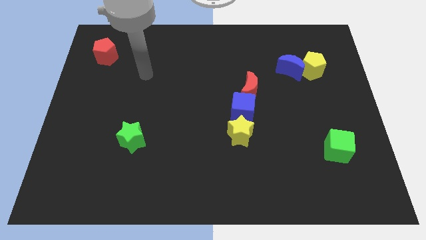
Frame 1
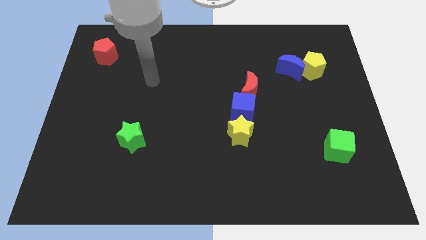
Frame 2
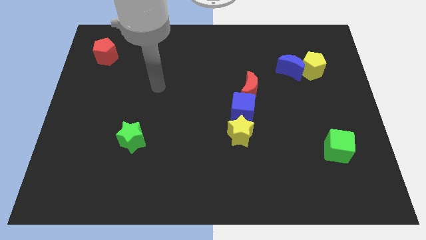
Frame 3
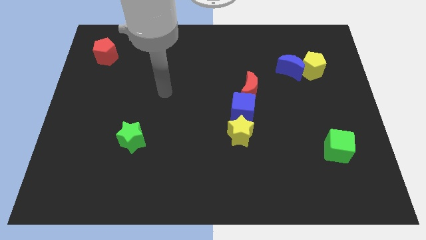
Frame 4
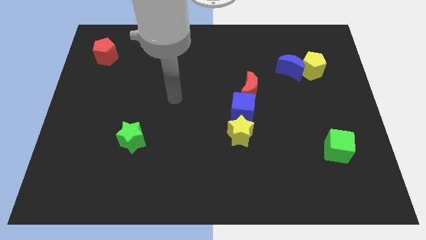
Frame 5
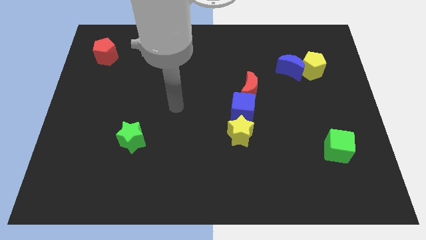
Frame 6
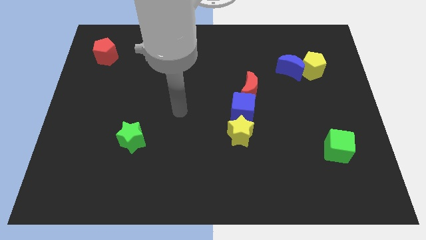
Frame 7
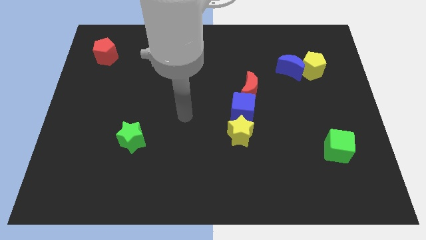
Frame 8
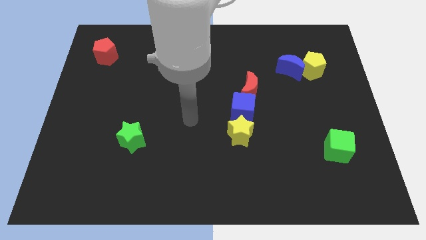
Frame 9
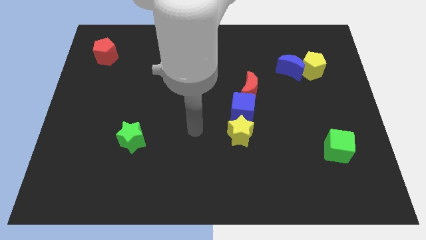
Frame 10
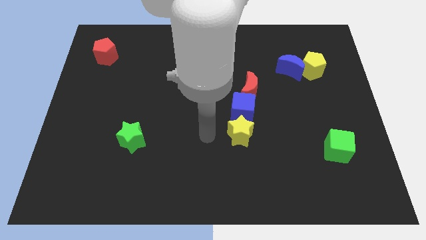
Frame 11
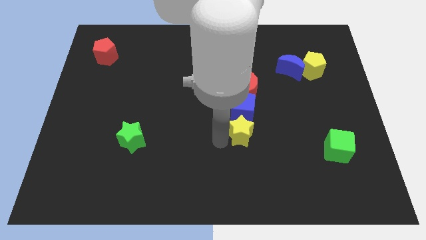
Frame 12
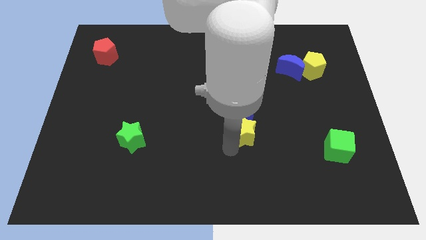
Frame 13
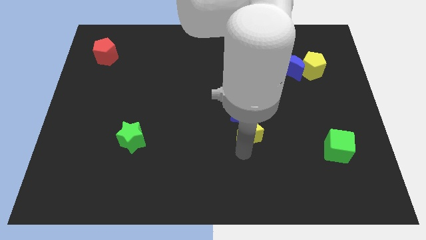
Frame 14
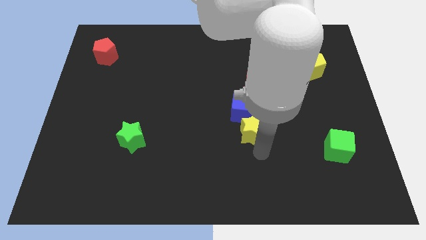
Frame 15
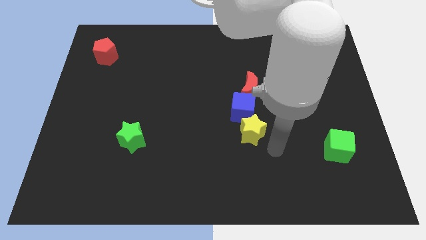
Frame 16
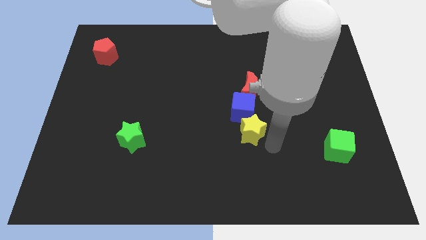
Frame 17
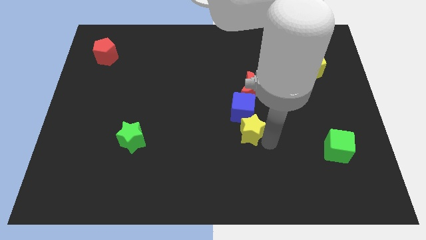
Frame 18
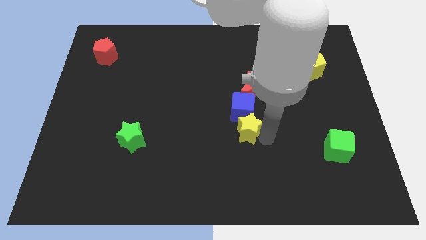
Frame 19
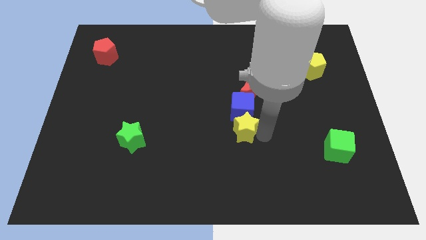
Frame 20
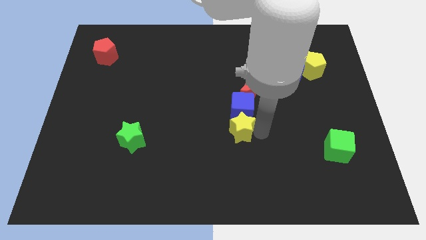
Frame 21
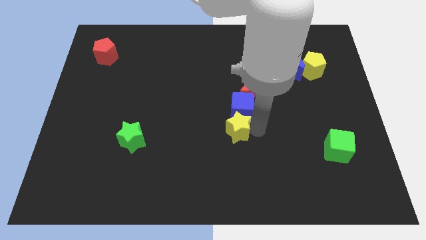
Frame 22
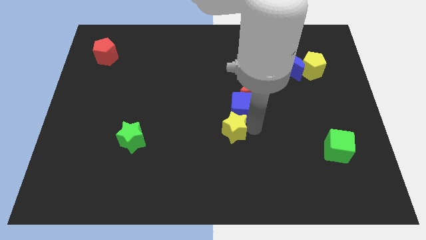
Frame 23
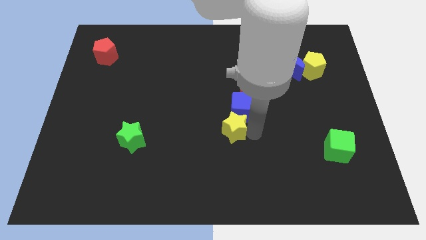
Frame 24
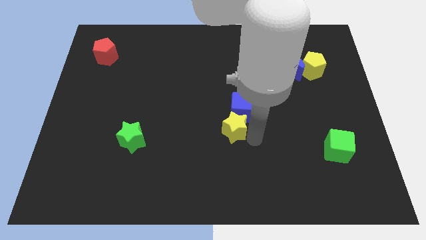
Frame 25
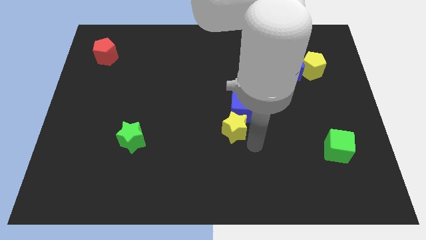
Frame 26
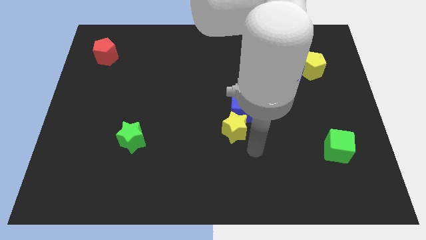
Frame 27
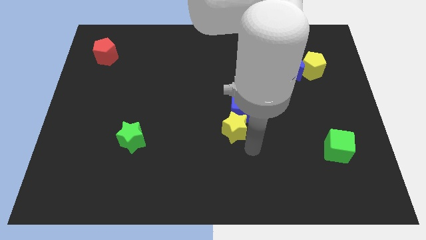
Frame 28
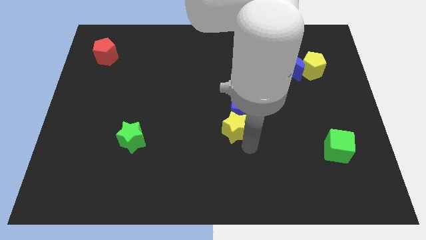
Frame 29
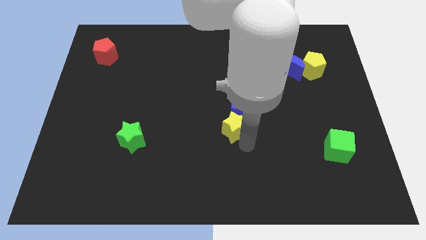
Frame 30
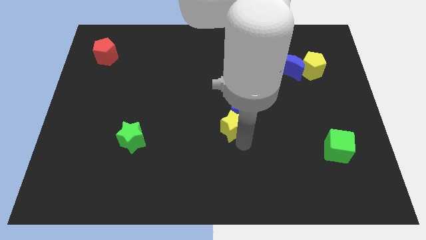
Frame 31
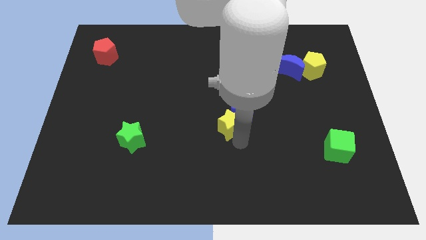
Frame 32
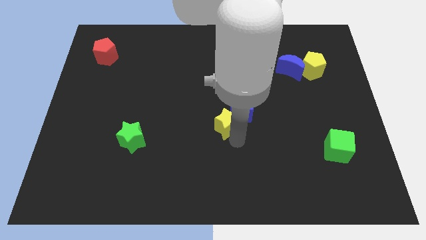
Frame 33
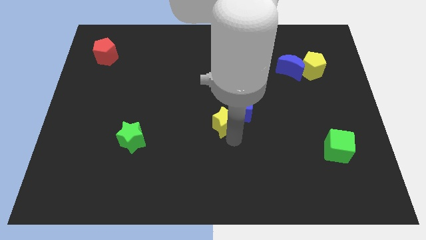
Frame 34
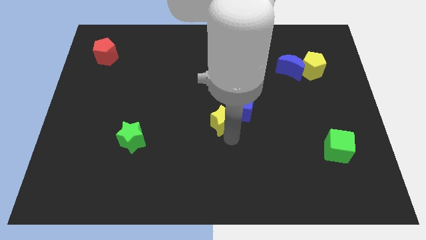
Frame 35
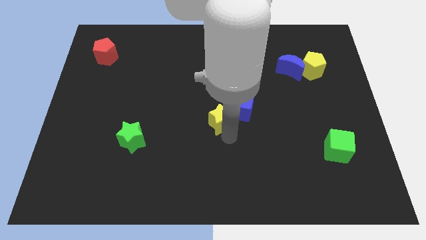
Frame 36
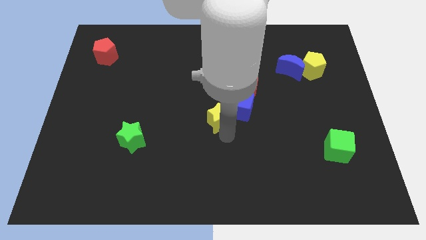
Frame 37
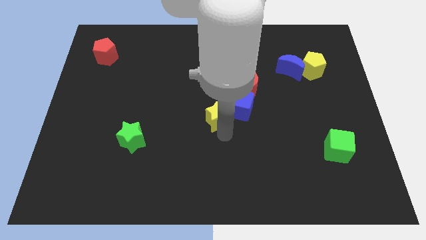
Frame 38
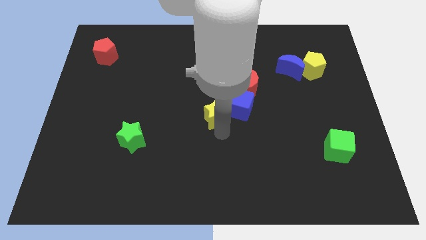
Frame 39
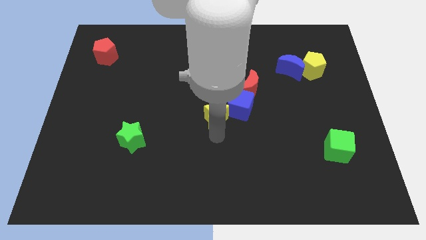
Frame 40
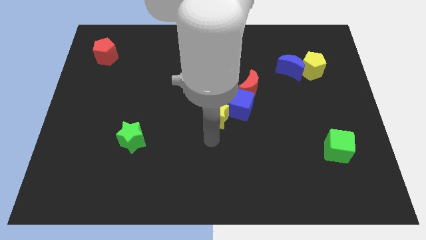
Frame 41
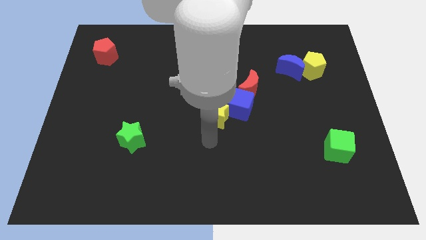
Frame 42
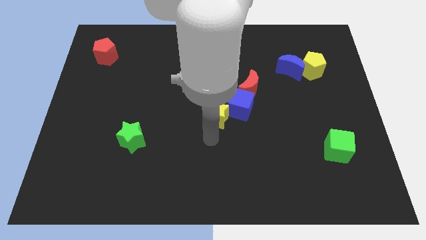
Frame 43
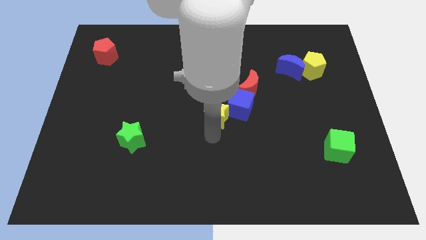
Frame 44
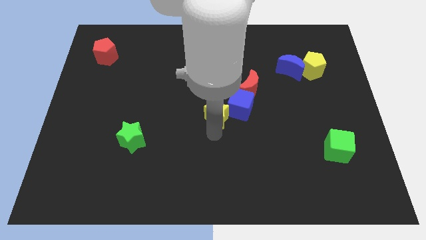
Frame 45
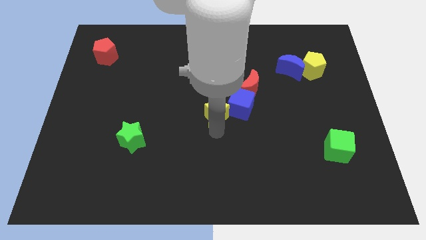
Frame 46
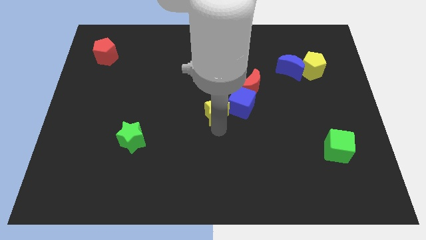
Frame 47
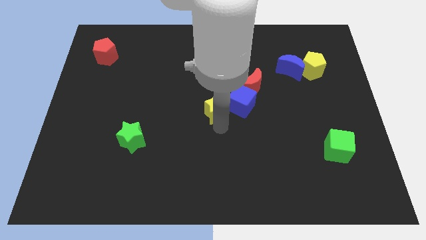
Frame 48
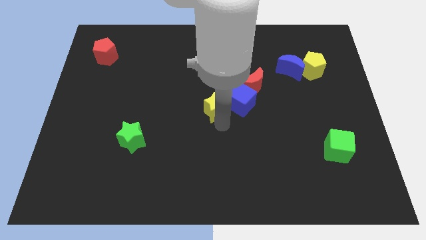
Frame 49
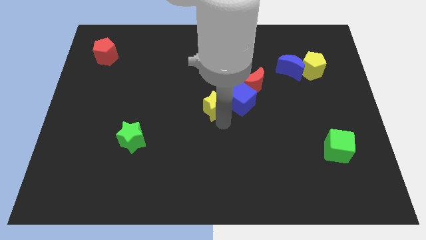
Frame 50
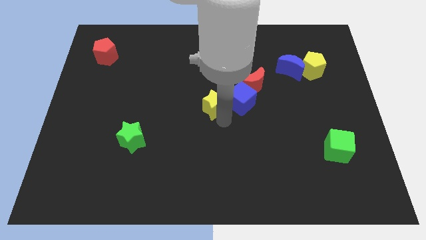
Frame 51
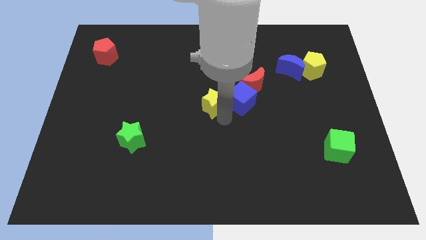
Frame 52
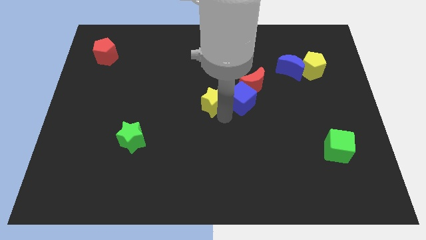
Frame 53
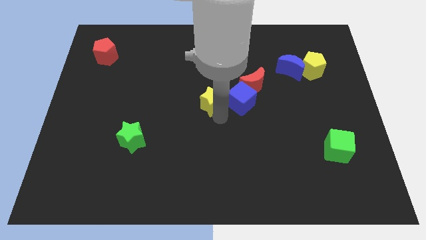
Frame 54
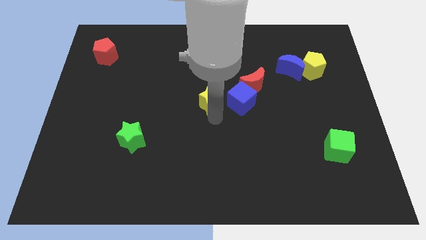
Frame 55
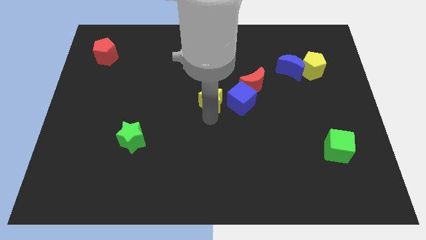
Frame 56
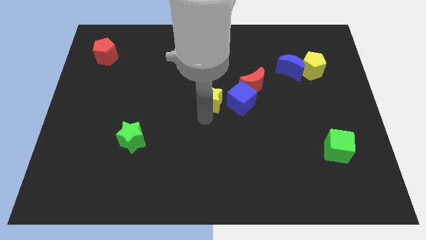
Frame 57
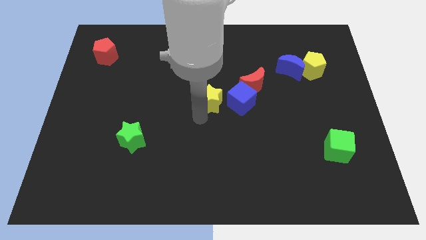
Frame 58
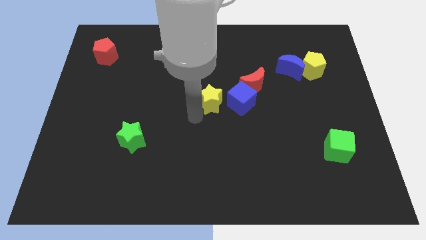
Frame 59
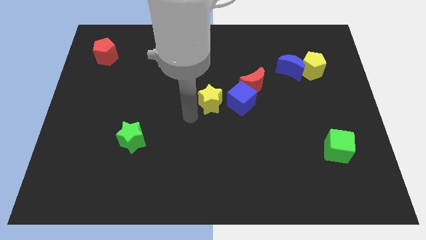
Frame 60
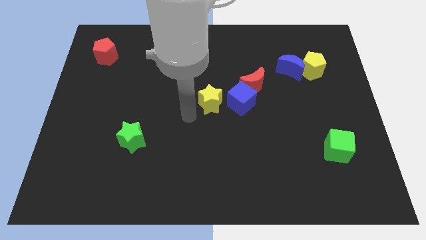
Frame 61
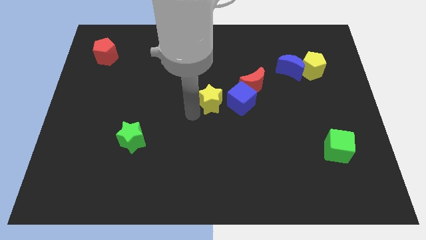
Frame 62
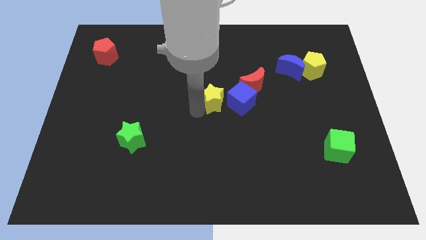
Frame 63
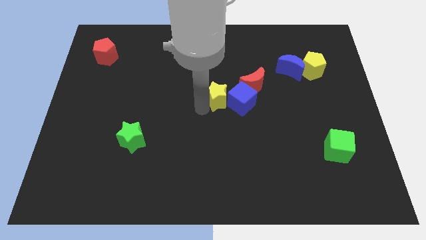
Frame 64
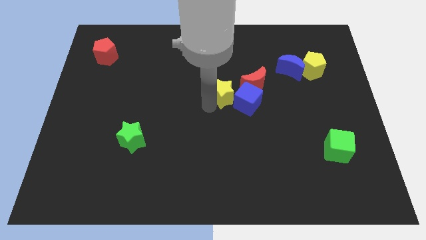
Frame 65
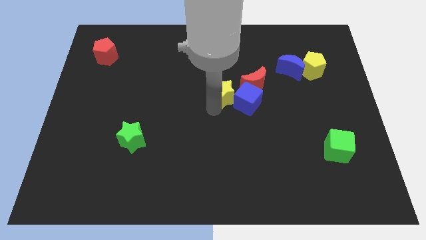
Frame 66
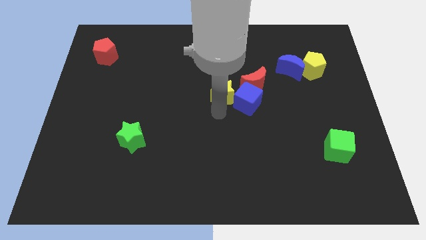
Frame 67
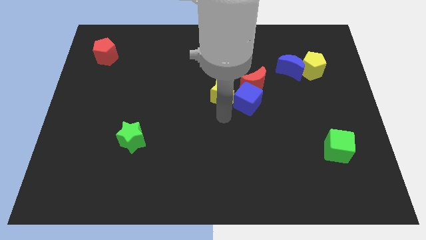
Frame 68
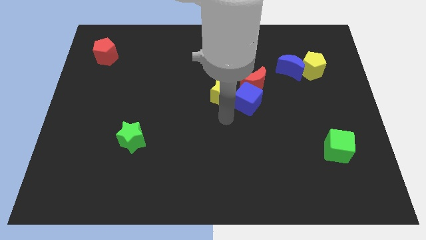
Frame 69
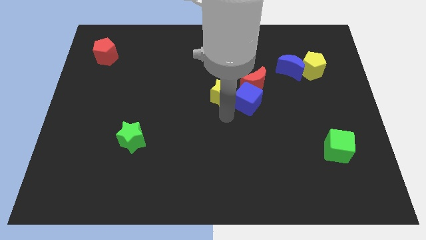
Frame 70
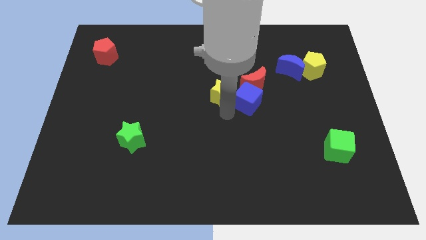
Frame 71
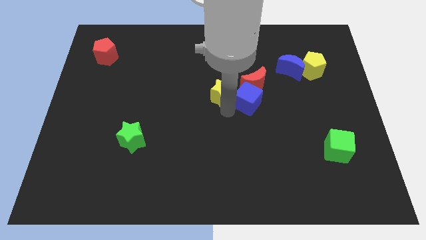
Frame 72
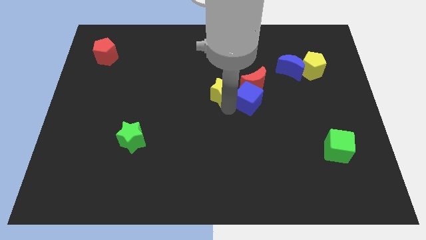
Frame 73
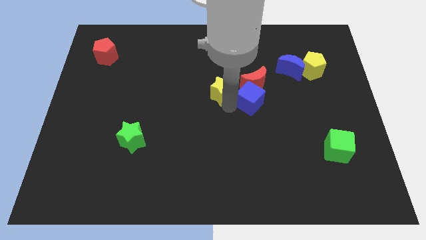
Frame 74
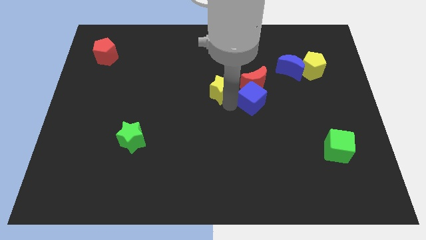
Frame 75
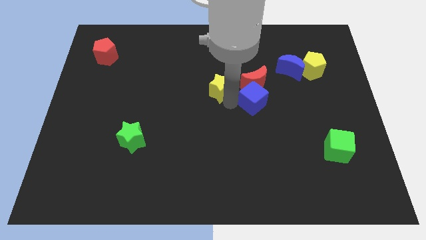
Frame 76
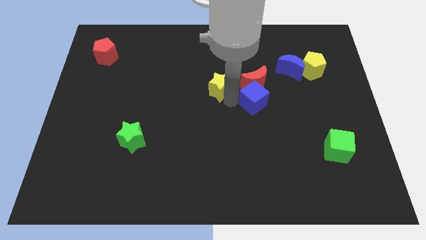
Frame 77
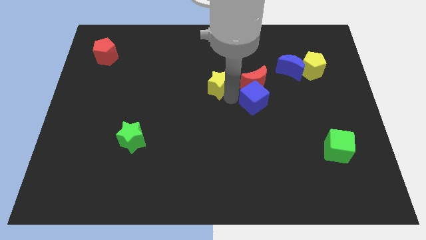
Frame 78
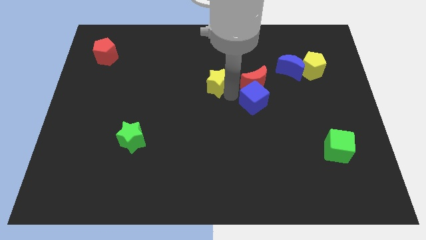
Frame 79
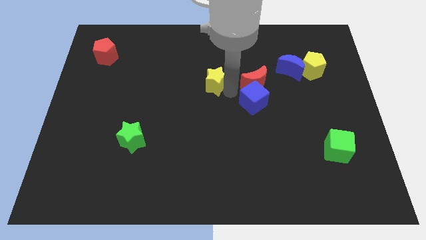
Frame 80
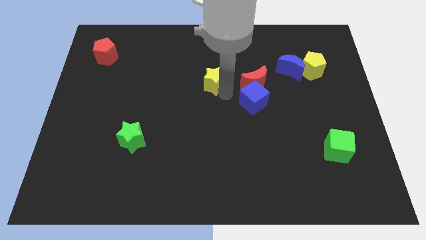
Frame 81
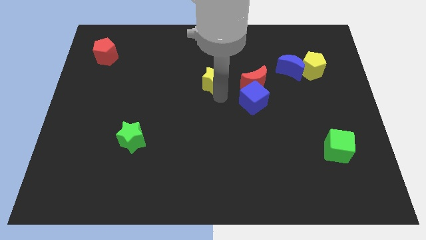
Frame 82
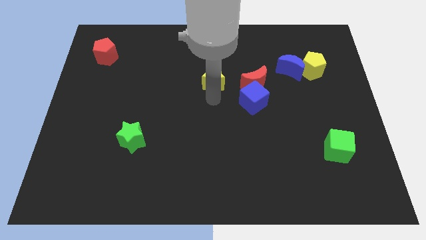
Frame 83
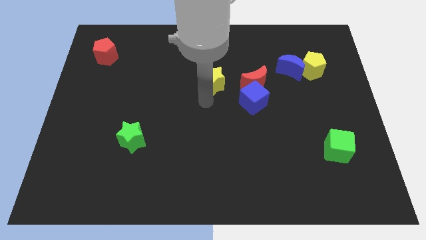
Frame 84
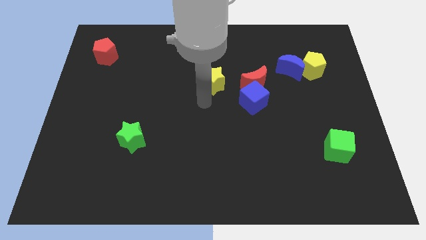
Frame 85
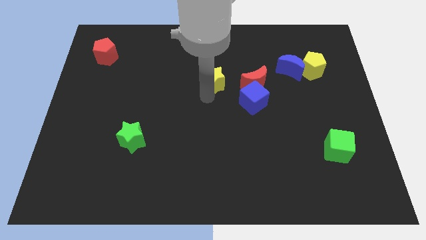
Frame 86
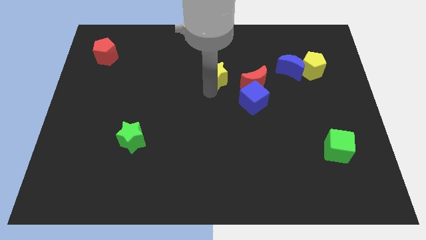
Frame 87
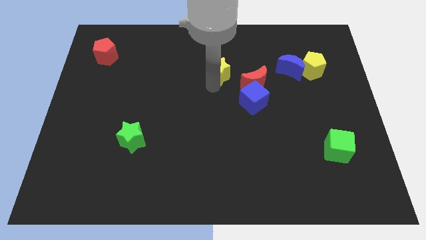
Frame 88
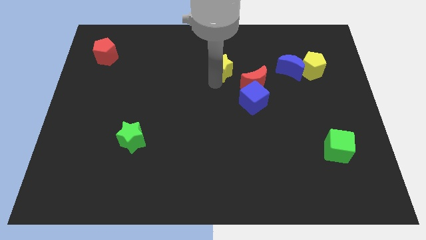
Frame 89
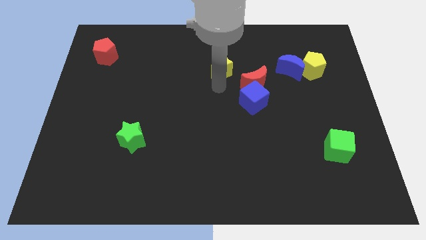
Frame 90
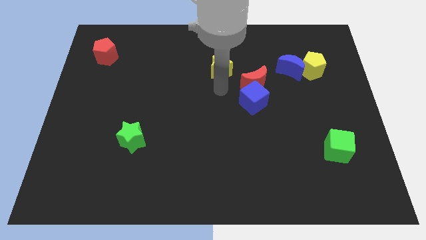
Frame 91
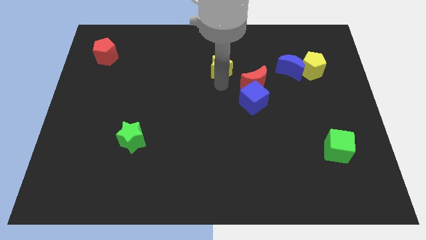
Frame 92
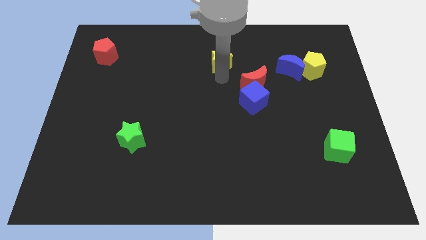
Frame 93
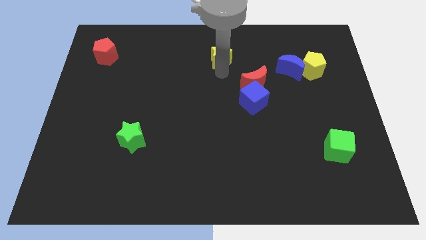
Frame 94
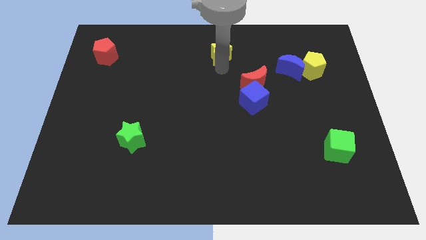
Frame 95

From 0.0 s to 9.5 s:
put the yellow star to the top side
